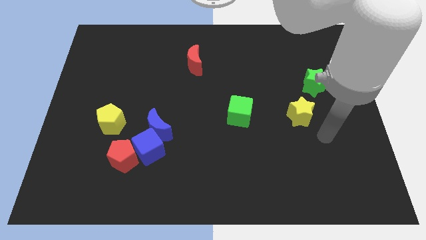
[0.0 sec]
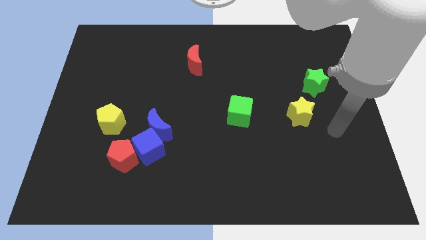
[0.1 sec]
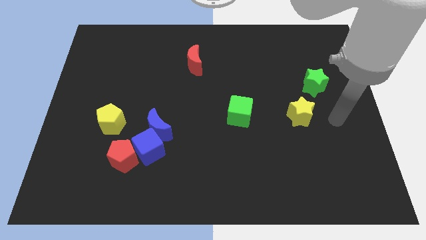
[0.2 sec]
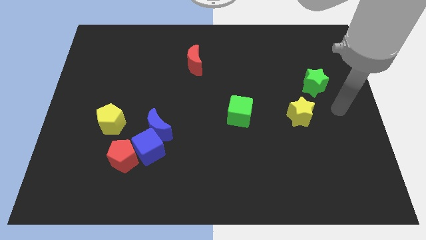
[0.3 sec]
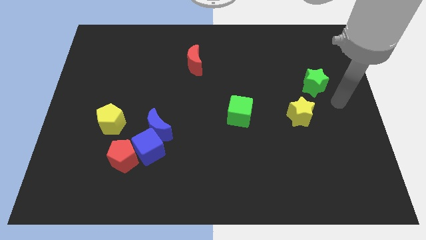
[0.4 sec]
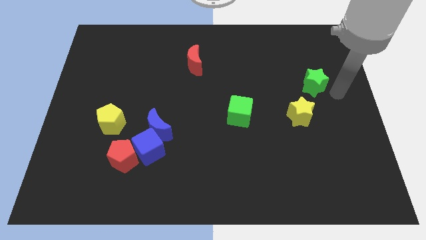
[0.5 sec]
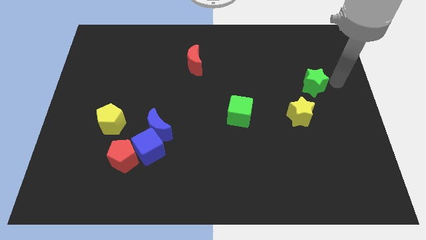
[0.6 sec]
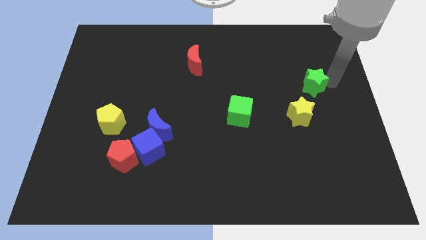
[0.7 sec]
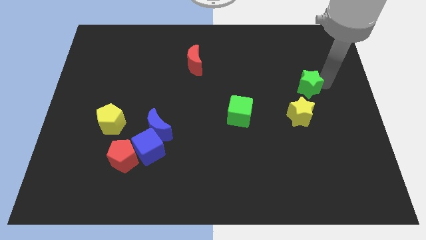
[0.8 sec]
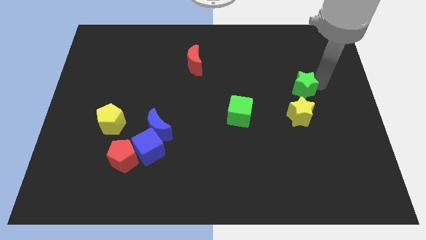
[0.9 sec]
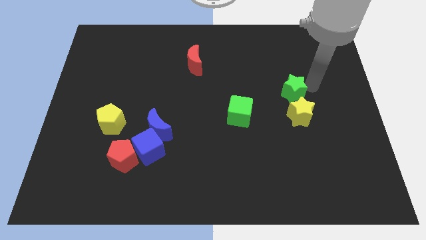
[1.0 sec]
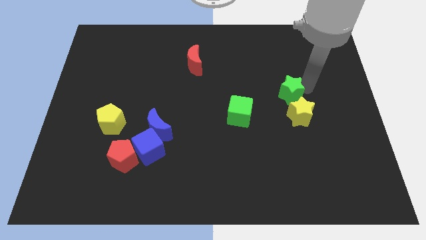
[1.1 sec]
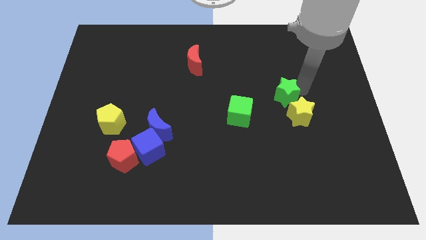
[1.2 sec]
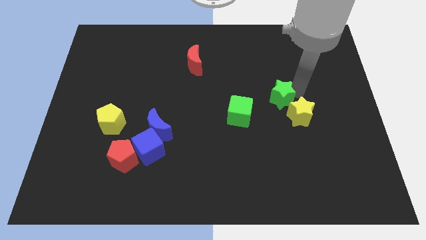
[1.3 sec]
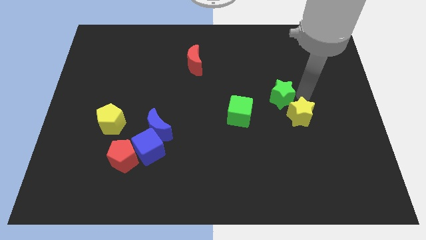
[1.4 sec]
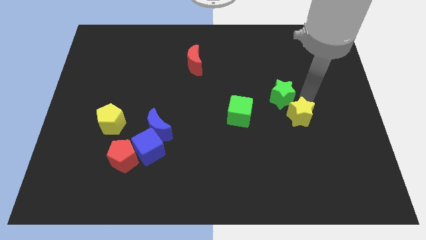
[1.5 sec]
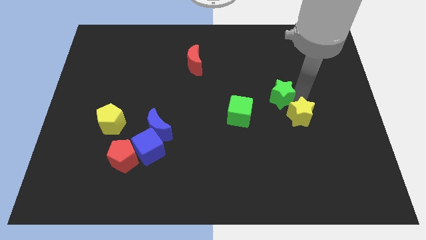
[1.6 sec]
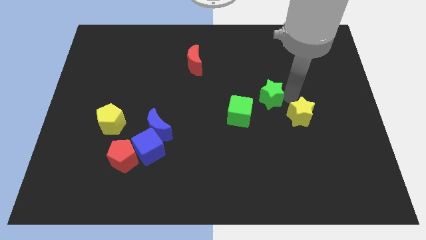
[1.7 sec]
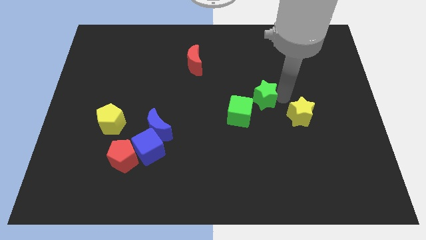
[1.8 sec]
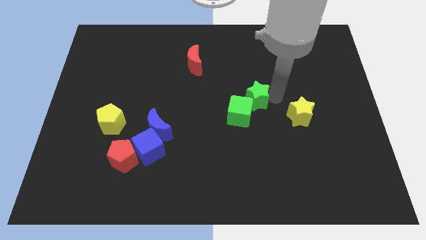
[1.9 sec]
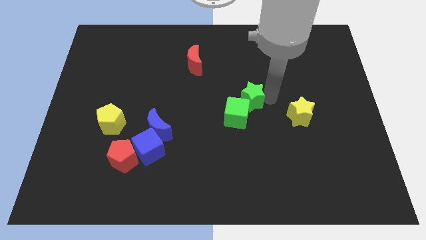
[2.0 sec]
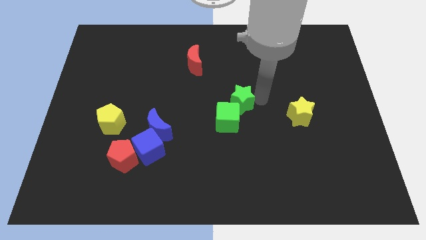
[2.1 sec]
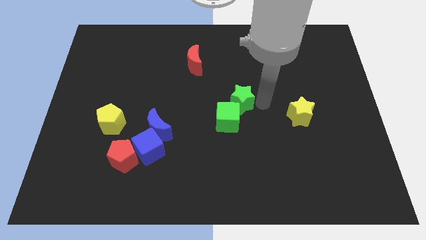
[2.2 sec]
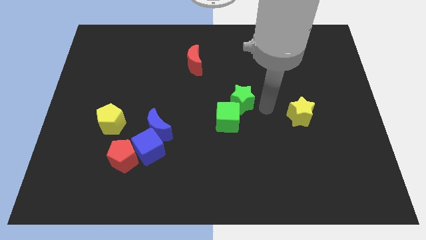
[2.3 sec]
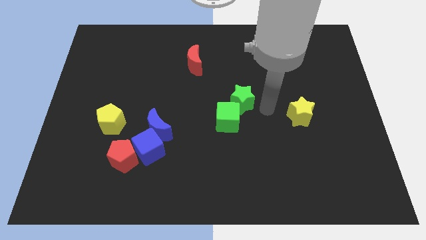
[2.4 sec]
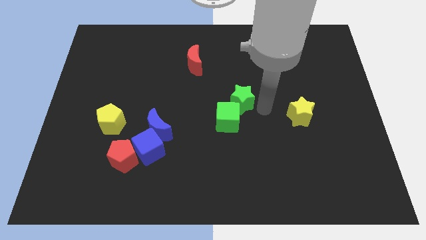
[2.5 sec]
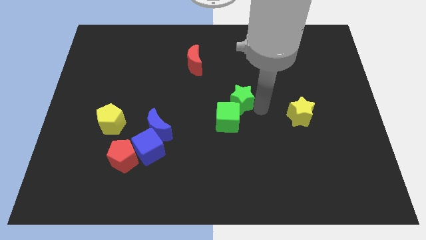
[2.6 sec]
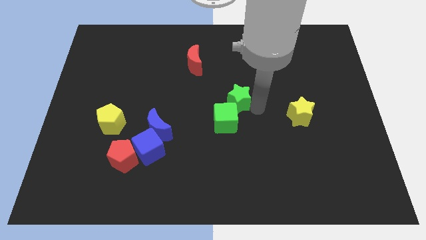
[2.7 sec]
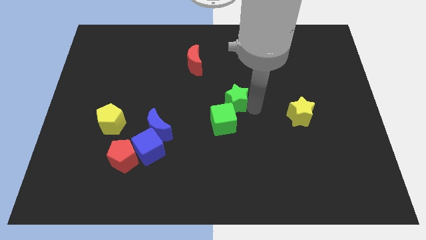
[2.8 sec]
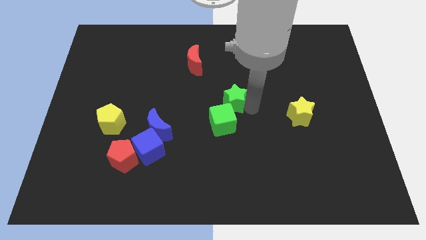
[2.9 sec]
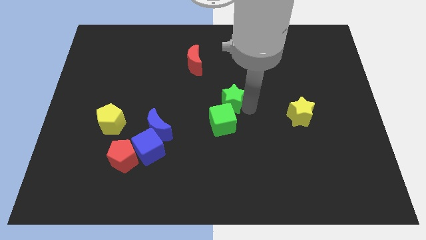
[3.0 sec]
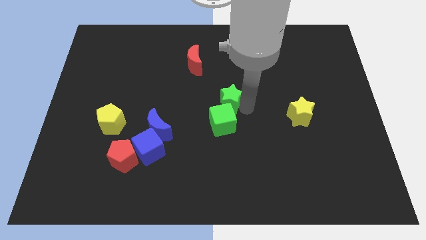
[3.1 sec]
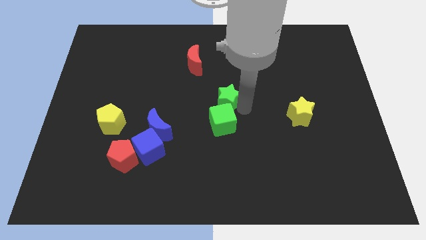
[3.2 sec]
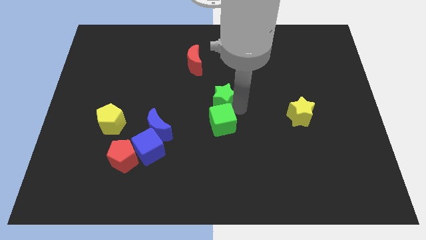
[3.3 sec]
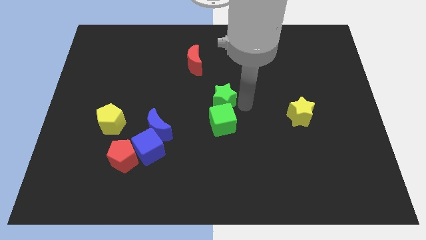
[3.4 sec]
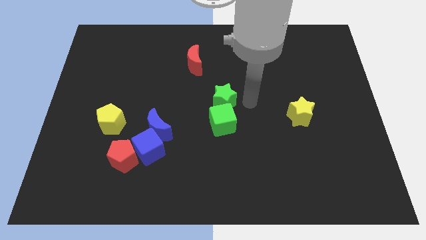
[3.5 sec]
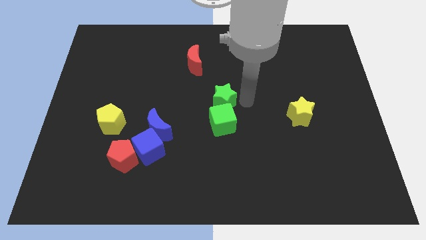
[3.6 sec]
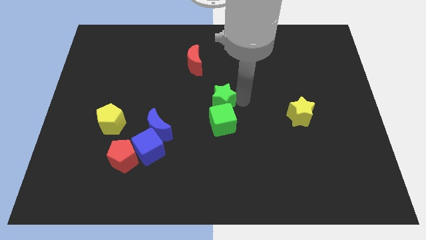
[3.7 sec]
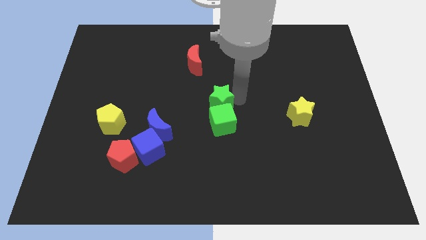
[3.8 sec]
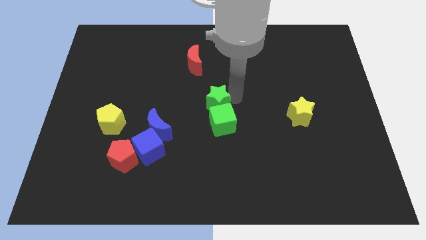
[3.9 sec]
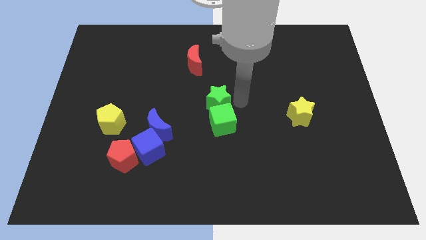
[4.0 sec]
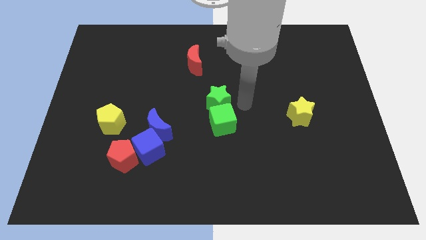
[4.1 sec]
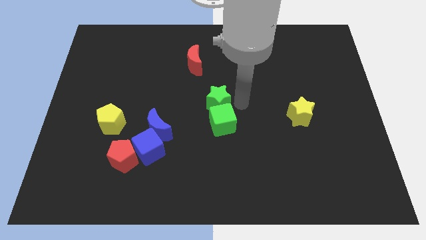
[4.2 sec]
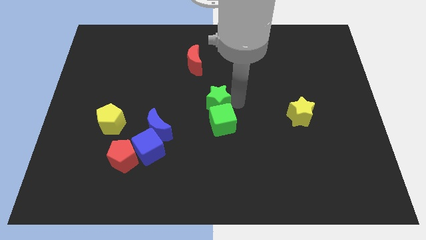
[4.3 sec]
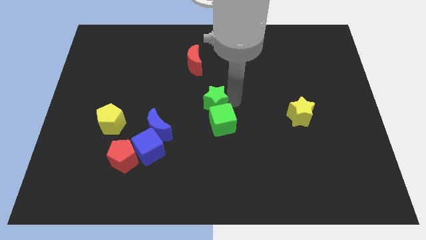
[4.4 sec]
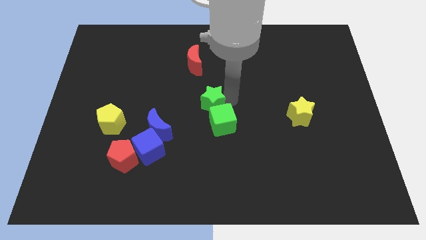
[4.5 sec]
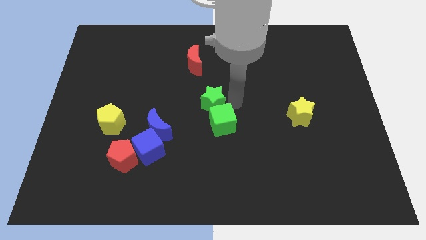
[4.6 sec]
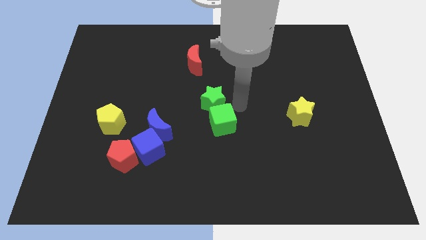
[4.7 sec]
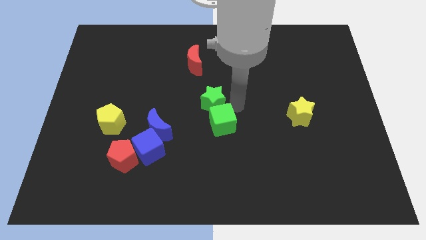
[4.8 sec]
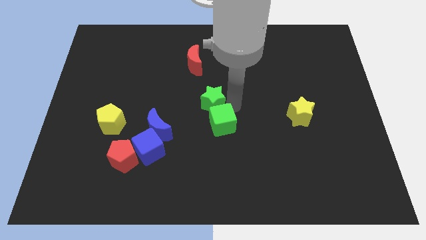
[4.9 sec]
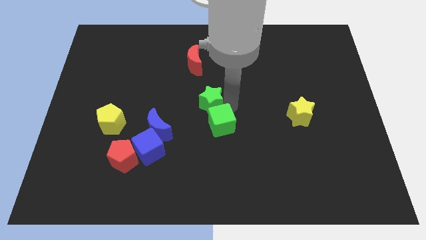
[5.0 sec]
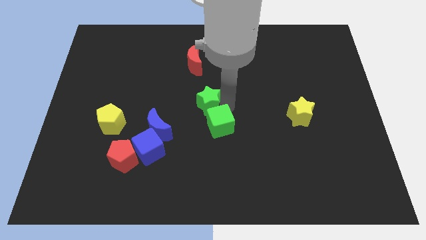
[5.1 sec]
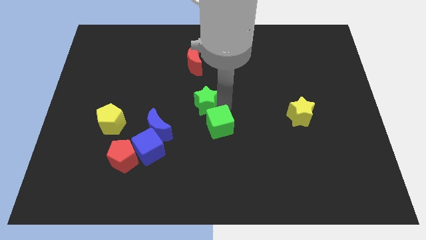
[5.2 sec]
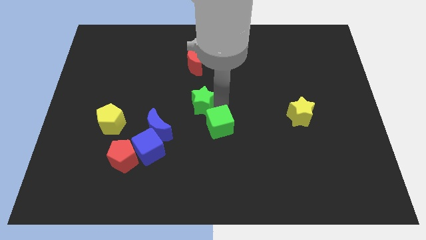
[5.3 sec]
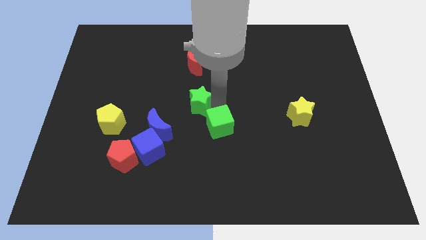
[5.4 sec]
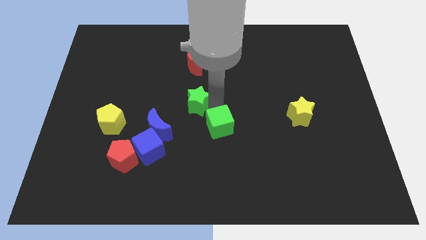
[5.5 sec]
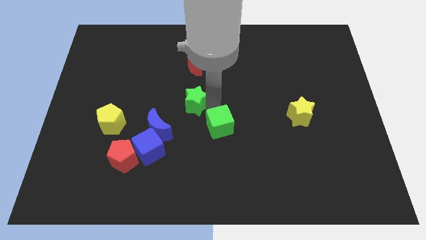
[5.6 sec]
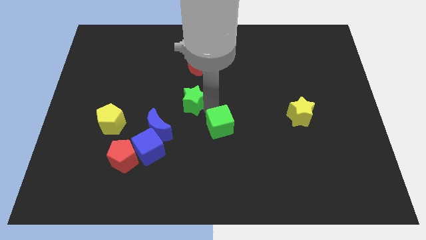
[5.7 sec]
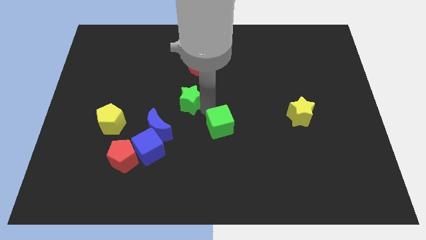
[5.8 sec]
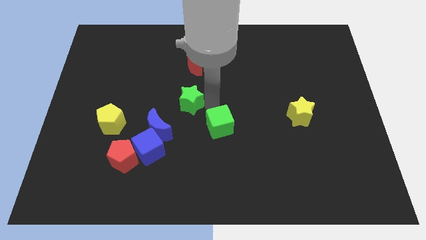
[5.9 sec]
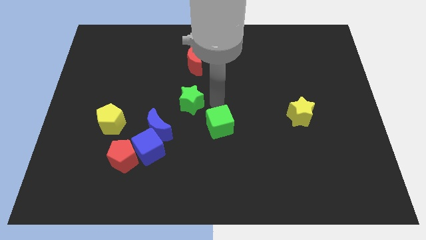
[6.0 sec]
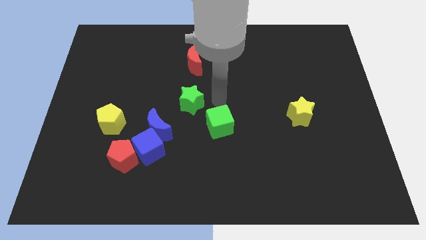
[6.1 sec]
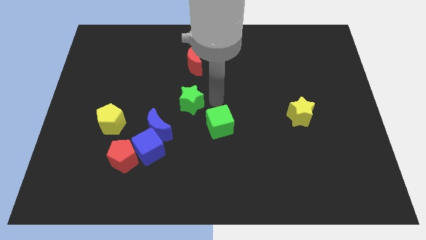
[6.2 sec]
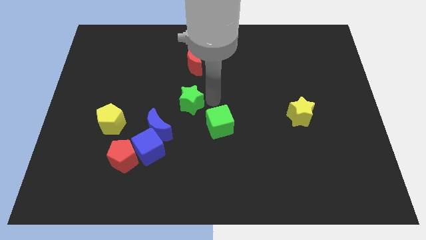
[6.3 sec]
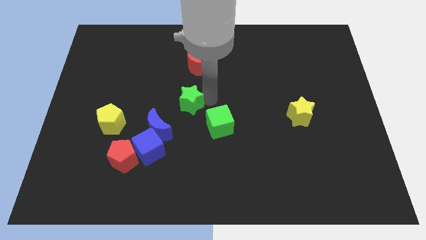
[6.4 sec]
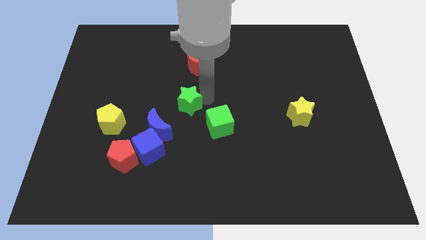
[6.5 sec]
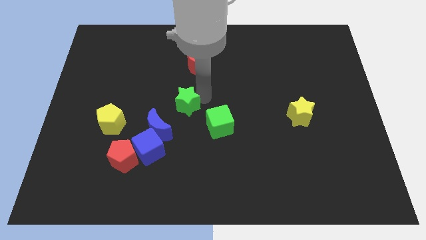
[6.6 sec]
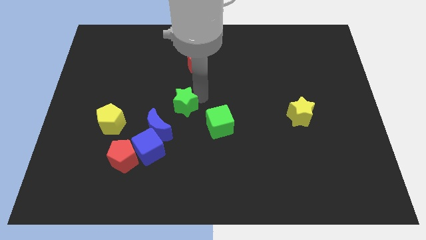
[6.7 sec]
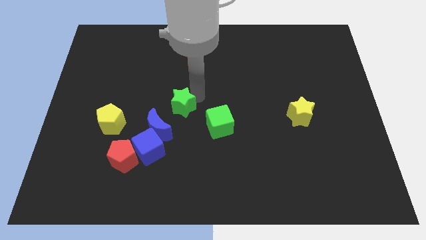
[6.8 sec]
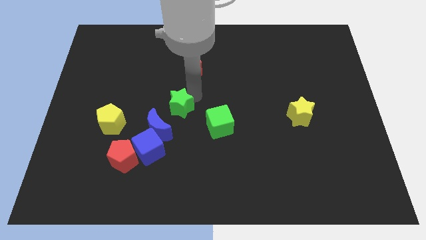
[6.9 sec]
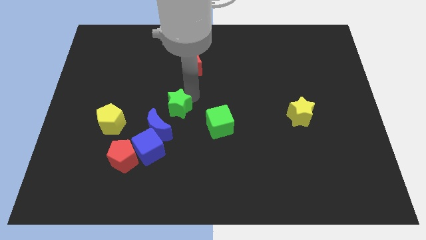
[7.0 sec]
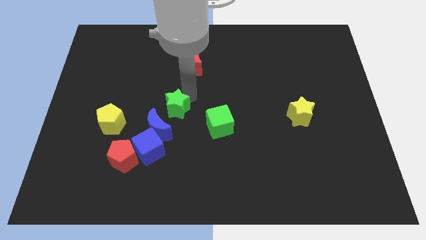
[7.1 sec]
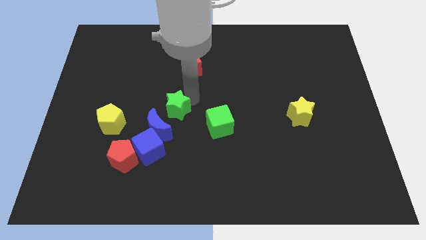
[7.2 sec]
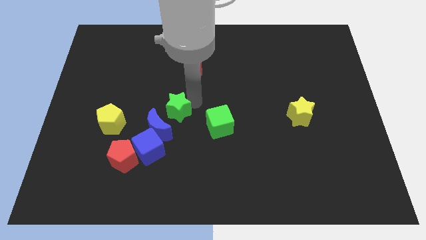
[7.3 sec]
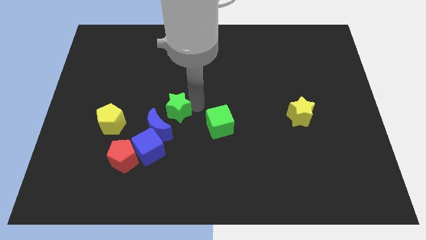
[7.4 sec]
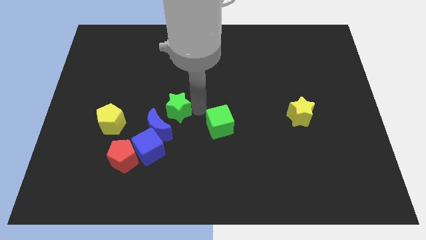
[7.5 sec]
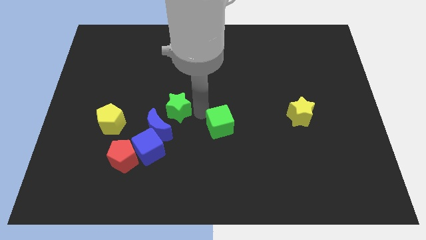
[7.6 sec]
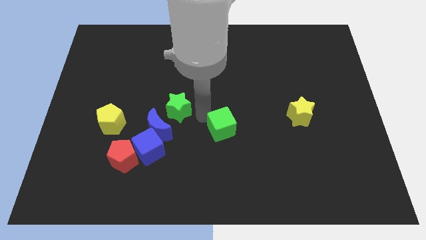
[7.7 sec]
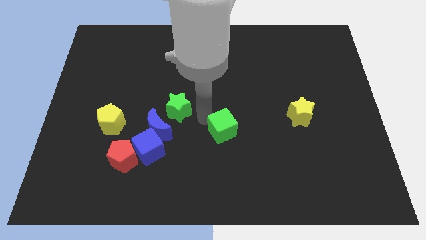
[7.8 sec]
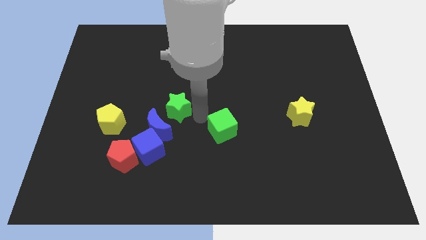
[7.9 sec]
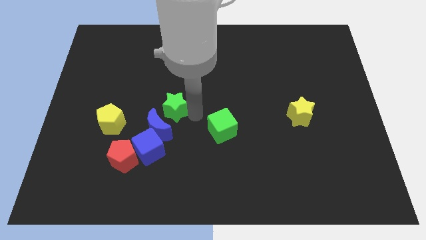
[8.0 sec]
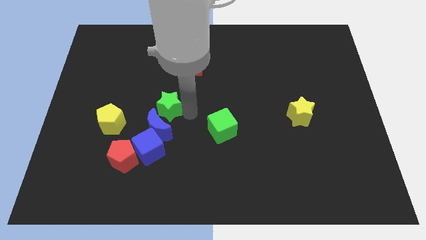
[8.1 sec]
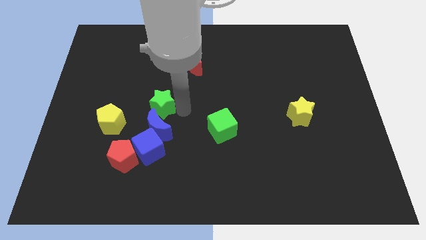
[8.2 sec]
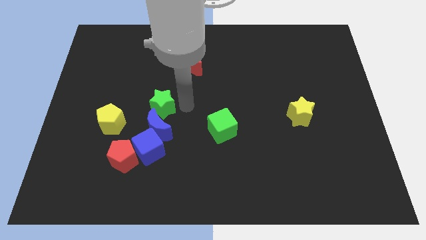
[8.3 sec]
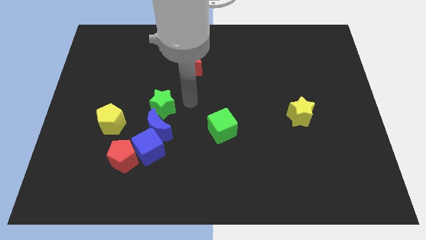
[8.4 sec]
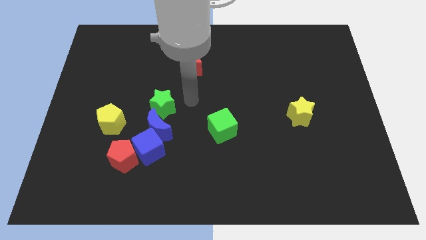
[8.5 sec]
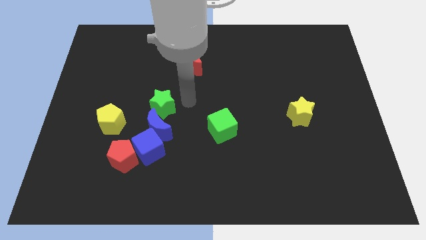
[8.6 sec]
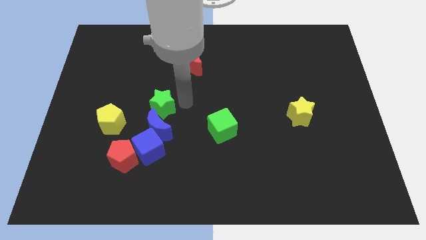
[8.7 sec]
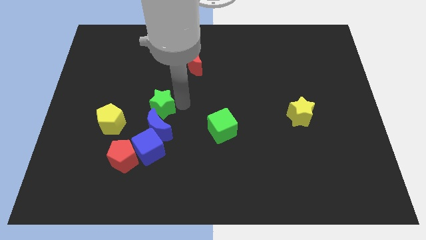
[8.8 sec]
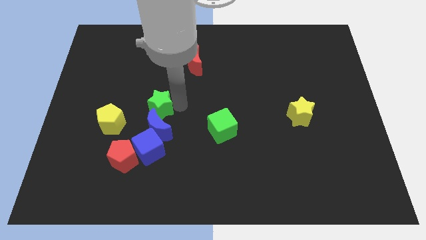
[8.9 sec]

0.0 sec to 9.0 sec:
move the green star to the top left of the blue moon
